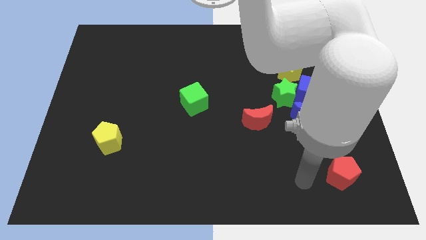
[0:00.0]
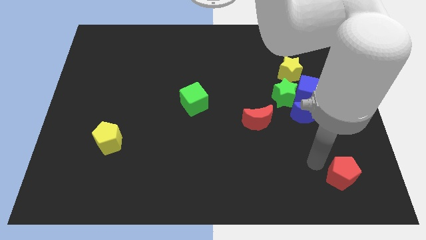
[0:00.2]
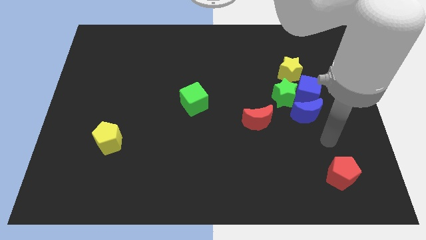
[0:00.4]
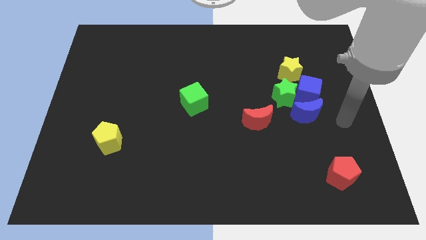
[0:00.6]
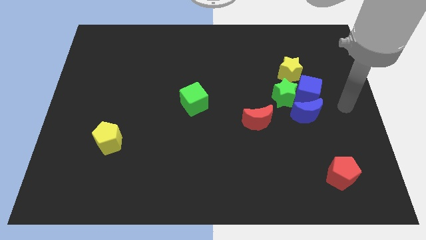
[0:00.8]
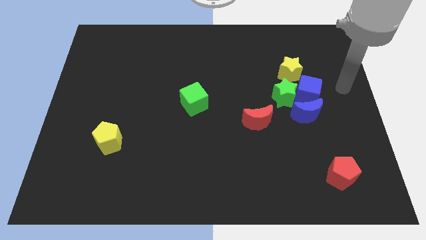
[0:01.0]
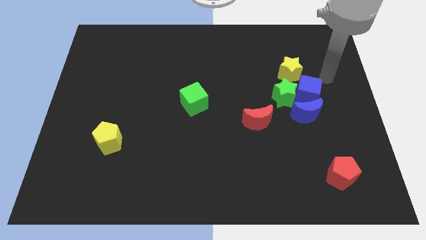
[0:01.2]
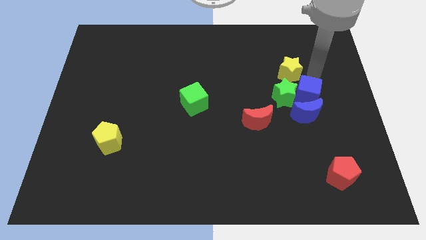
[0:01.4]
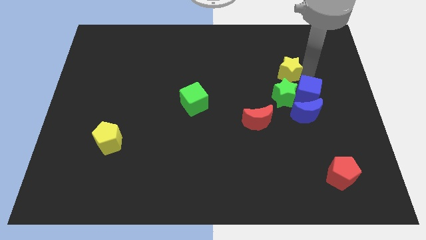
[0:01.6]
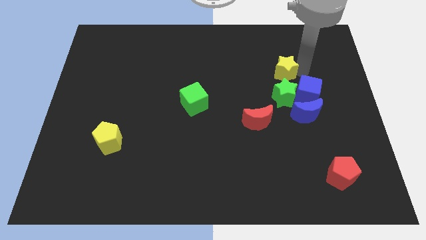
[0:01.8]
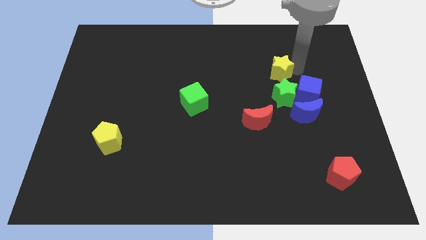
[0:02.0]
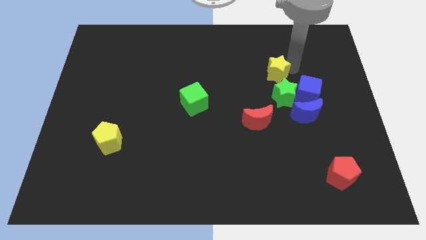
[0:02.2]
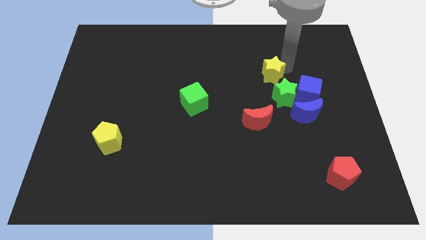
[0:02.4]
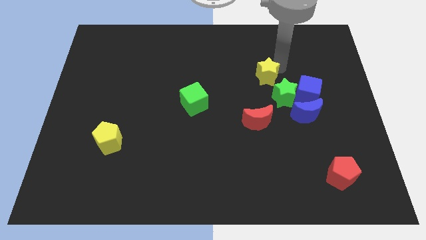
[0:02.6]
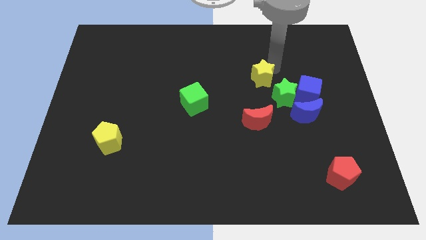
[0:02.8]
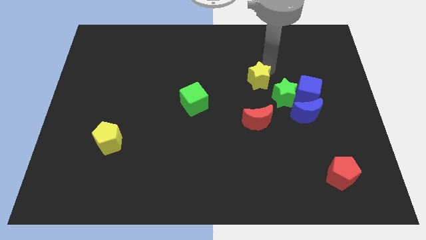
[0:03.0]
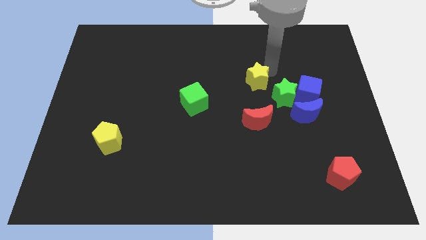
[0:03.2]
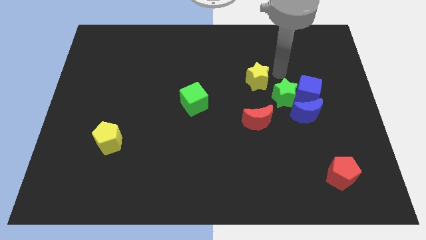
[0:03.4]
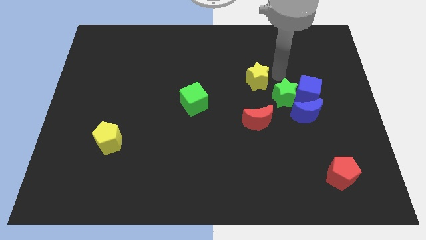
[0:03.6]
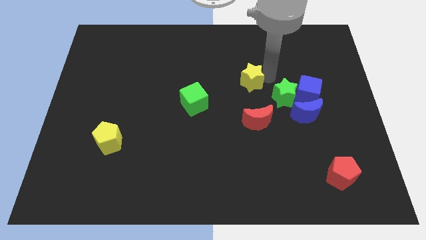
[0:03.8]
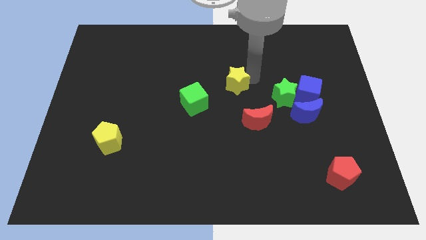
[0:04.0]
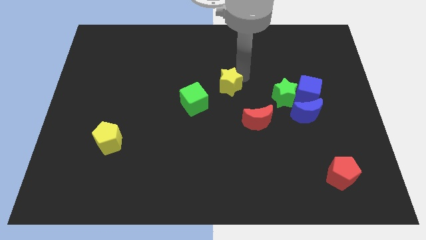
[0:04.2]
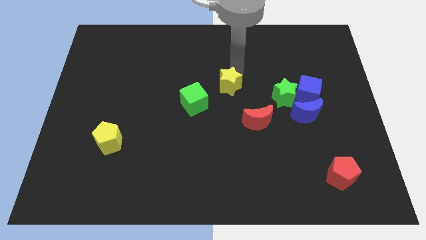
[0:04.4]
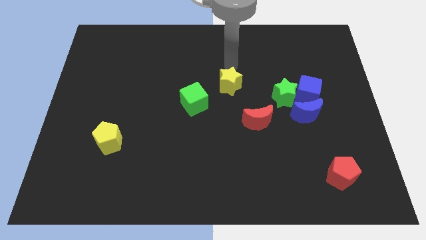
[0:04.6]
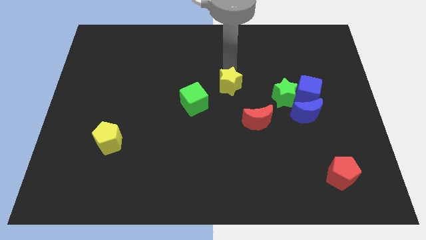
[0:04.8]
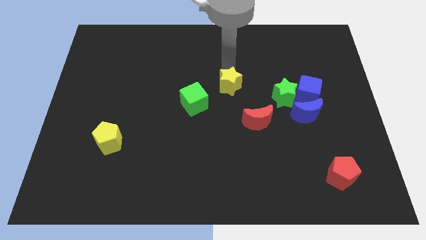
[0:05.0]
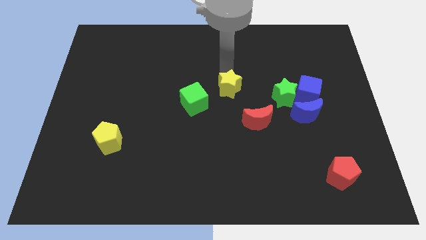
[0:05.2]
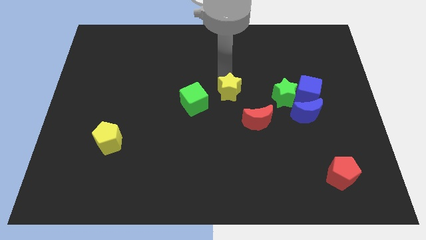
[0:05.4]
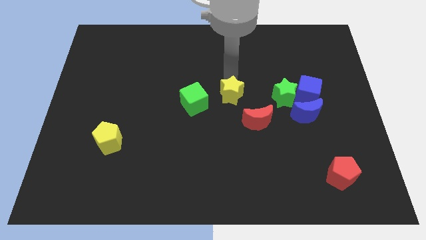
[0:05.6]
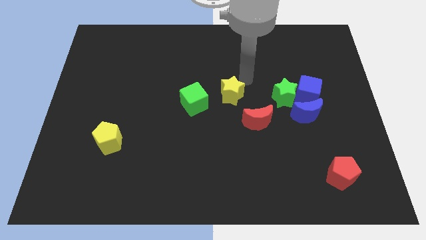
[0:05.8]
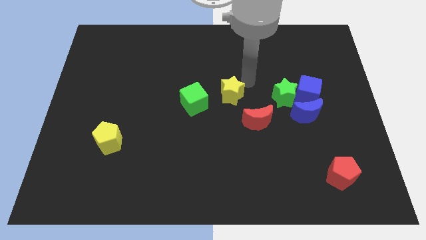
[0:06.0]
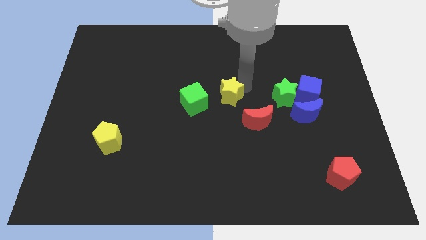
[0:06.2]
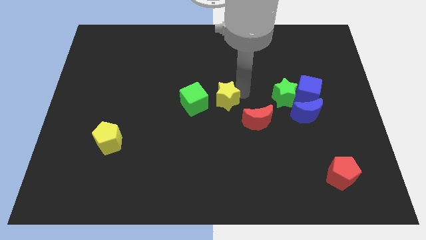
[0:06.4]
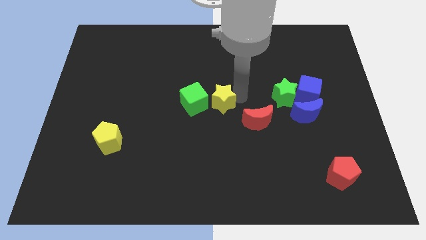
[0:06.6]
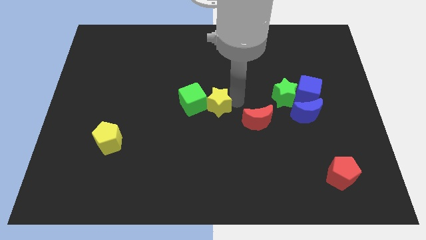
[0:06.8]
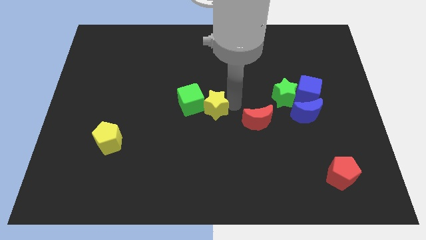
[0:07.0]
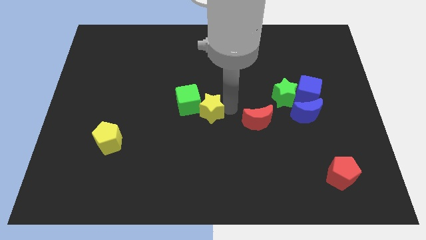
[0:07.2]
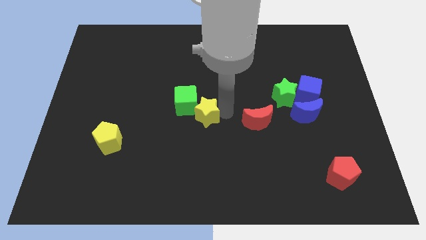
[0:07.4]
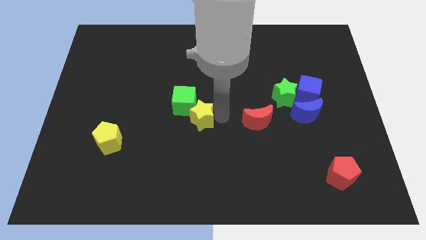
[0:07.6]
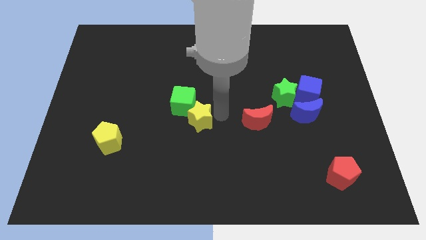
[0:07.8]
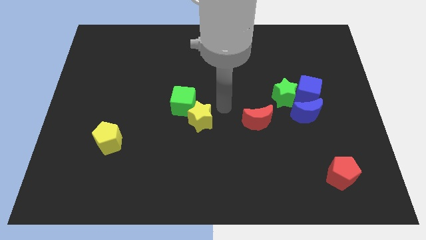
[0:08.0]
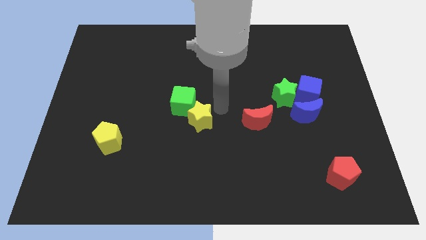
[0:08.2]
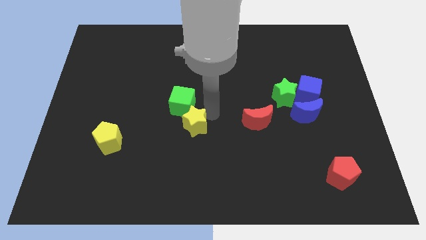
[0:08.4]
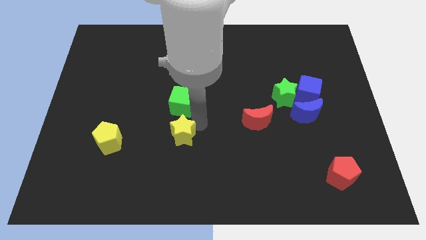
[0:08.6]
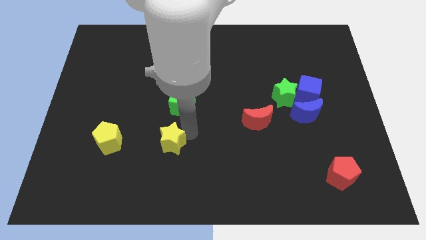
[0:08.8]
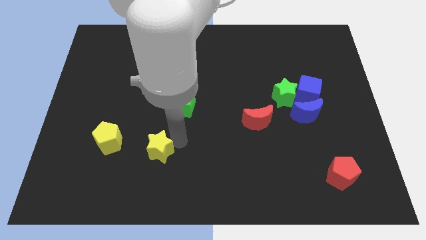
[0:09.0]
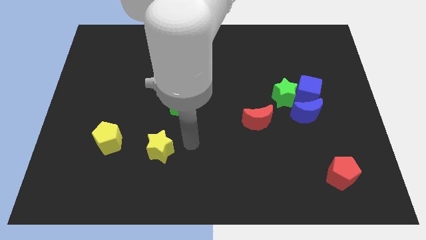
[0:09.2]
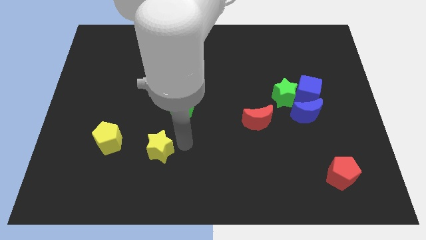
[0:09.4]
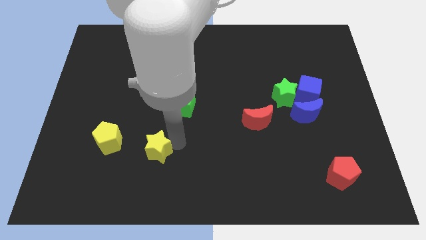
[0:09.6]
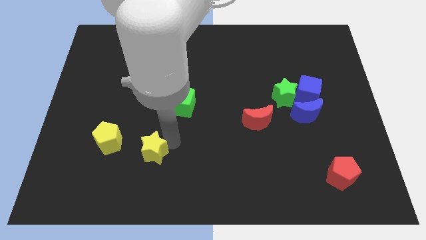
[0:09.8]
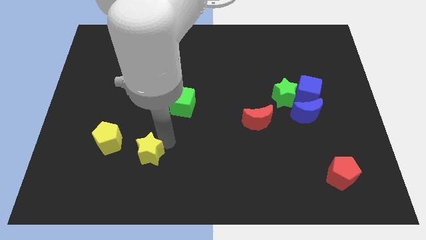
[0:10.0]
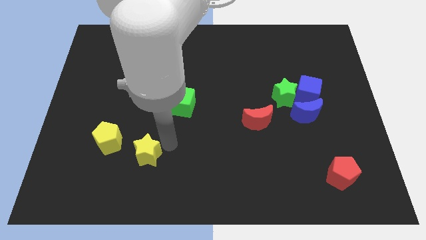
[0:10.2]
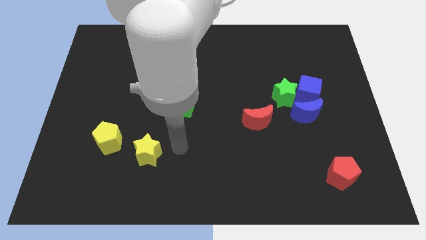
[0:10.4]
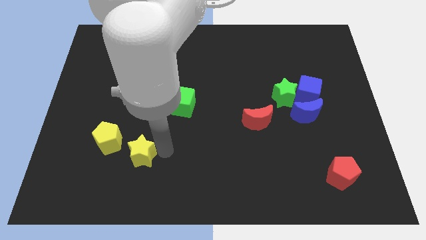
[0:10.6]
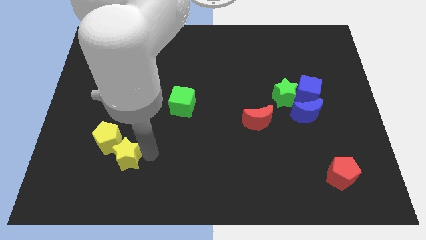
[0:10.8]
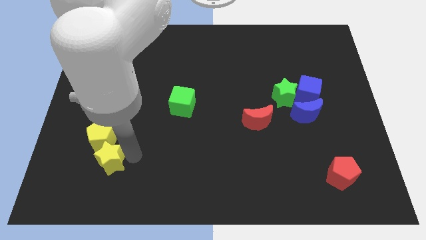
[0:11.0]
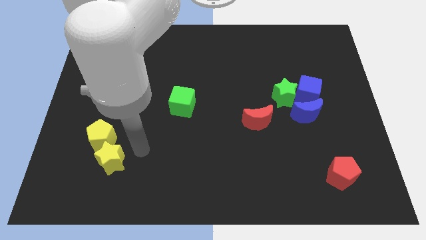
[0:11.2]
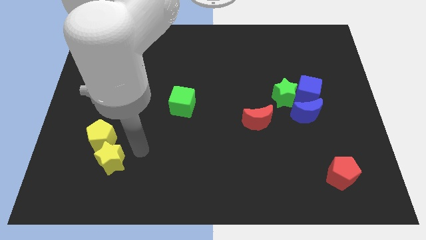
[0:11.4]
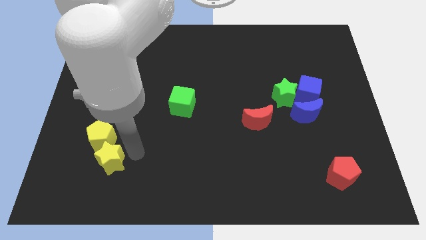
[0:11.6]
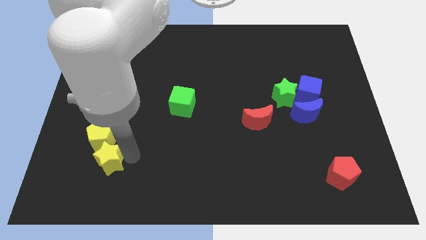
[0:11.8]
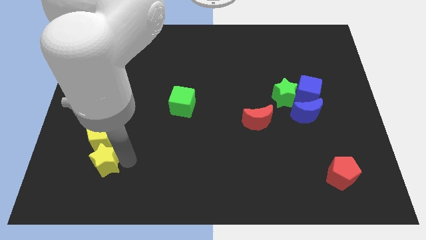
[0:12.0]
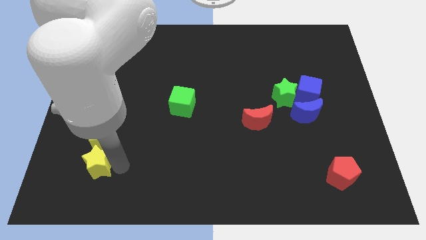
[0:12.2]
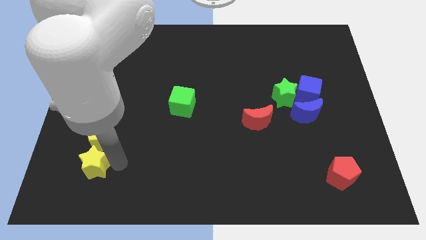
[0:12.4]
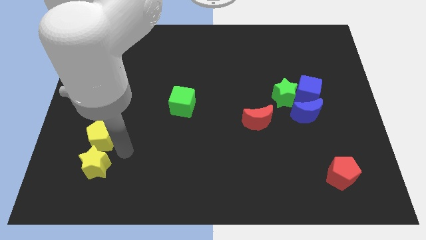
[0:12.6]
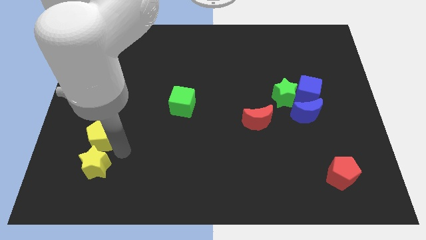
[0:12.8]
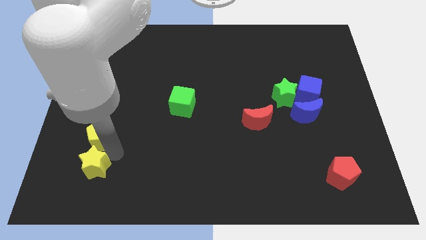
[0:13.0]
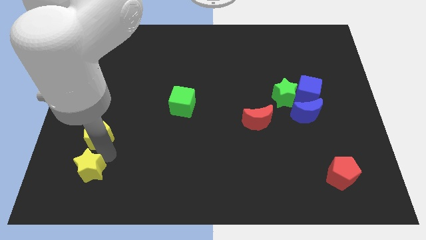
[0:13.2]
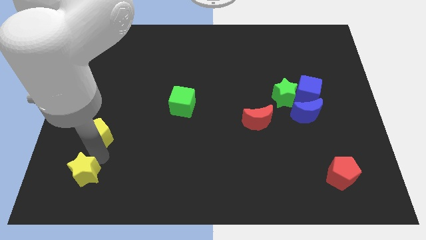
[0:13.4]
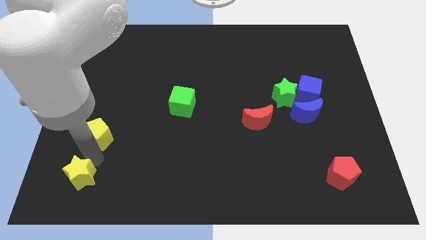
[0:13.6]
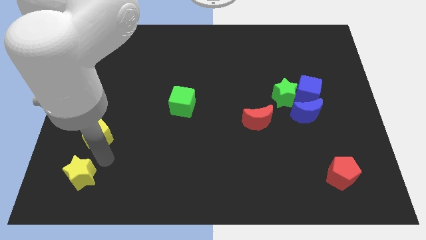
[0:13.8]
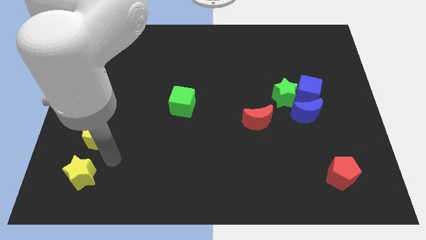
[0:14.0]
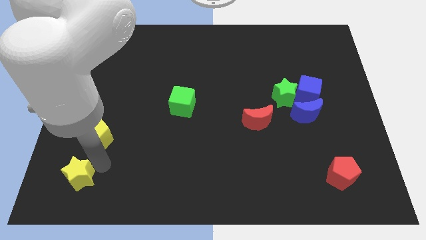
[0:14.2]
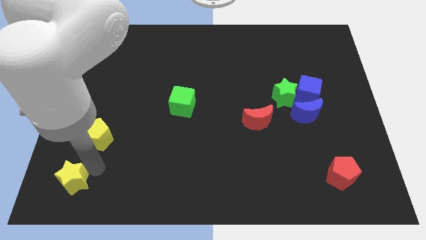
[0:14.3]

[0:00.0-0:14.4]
slide the yellow star to the lower left corner
